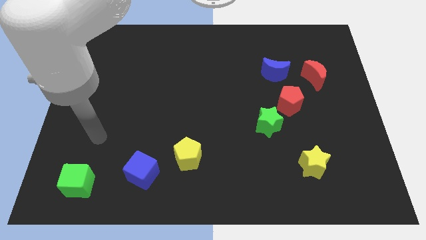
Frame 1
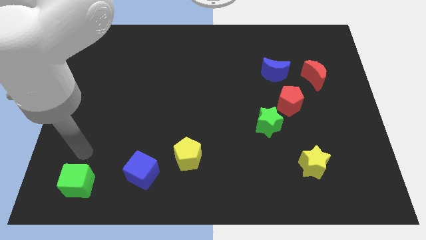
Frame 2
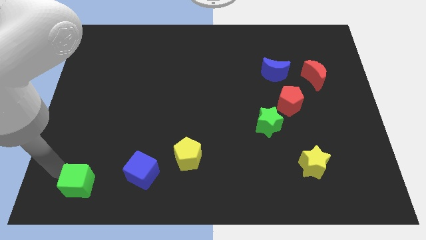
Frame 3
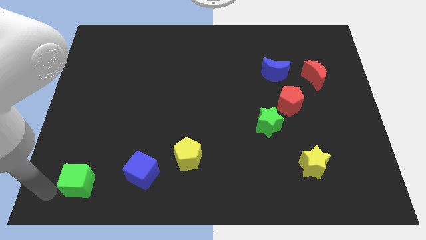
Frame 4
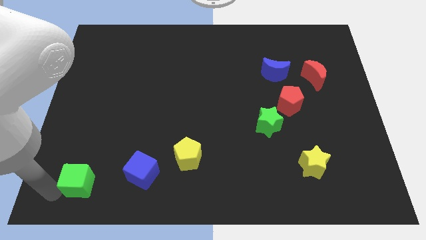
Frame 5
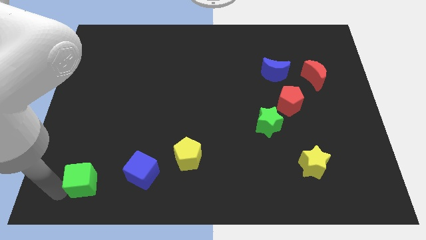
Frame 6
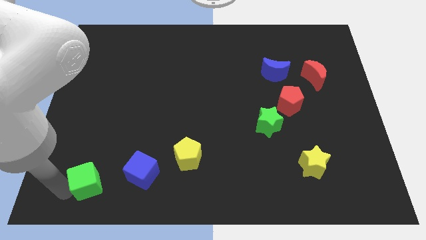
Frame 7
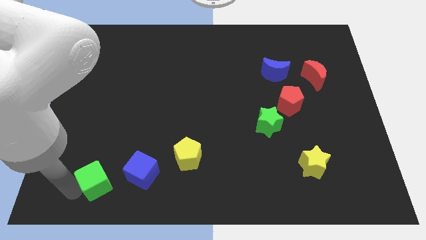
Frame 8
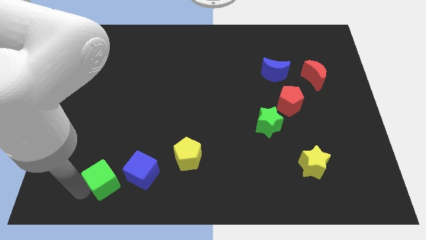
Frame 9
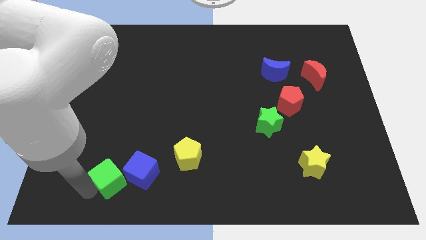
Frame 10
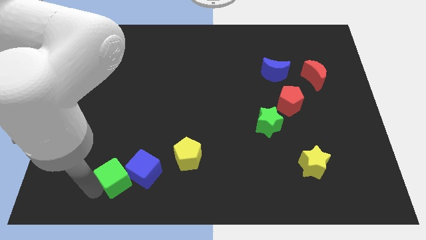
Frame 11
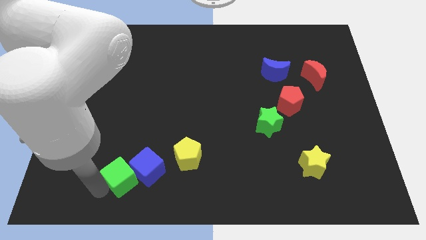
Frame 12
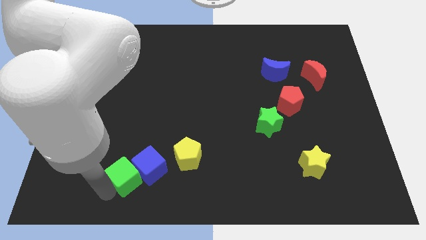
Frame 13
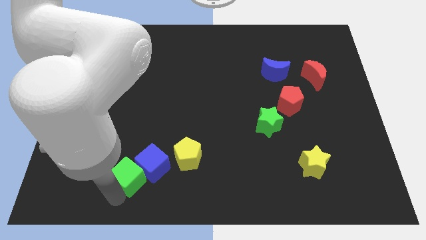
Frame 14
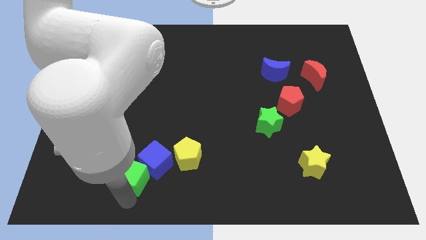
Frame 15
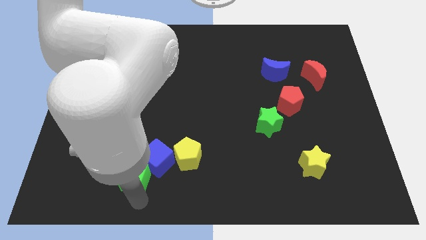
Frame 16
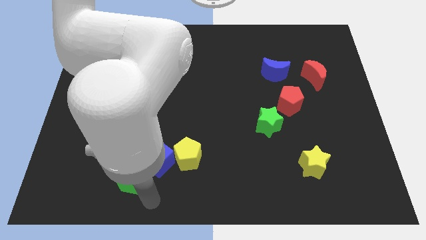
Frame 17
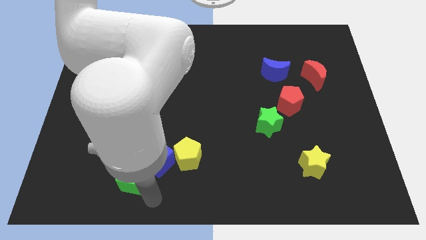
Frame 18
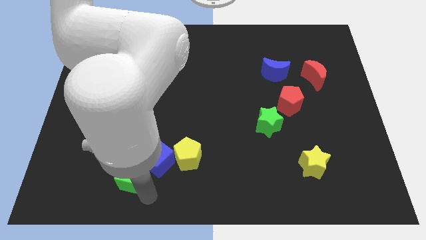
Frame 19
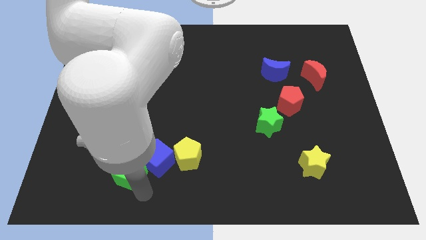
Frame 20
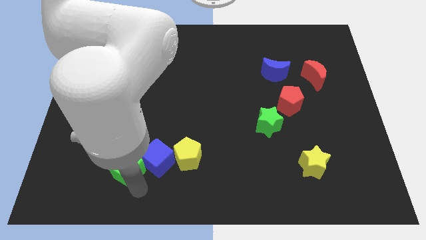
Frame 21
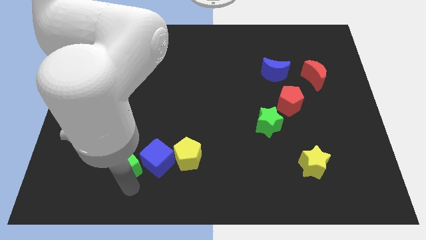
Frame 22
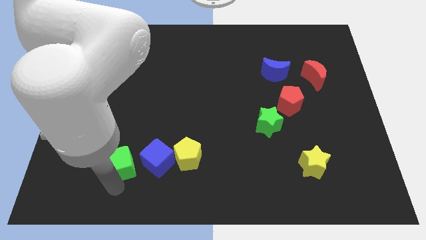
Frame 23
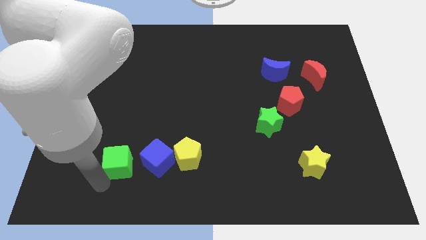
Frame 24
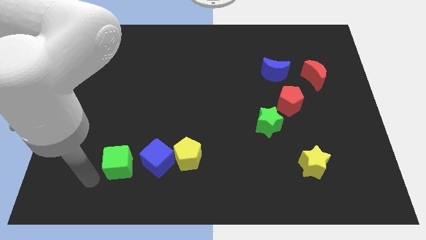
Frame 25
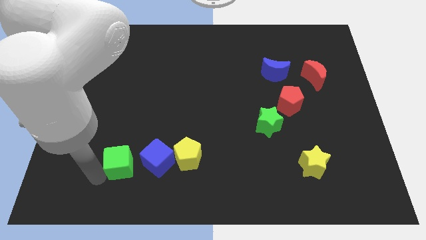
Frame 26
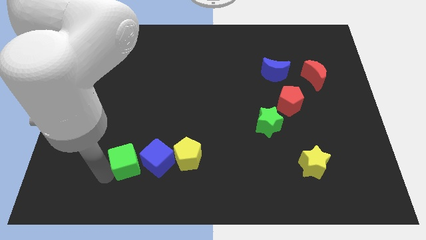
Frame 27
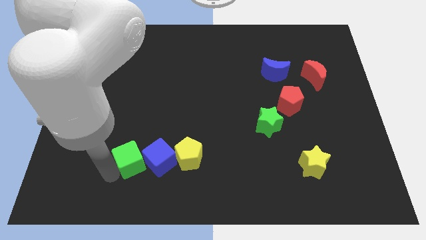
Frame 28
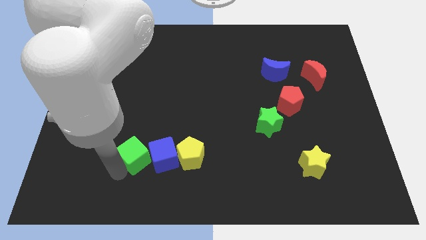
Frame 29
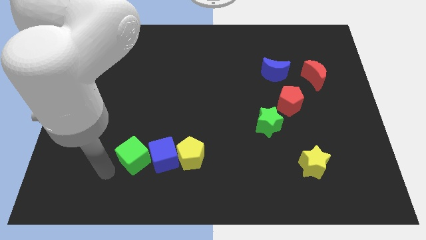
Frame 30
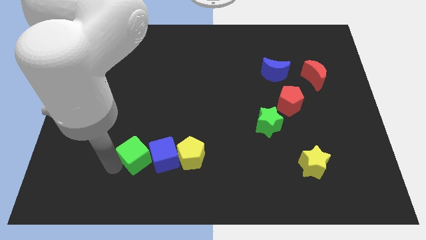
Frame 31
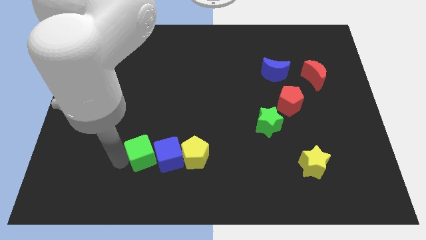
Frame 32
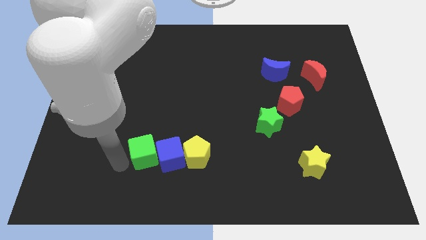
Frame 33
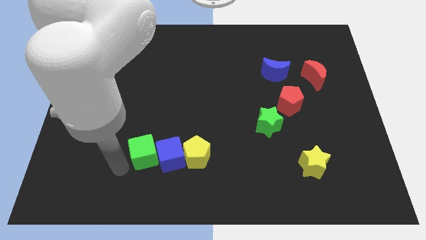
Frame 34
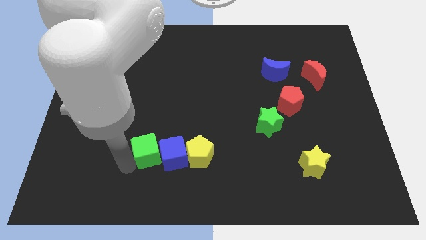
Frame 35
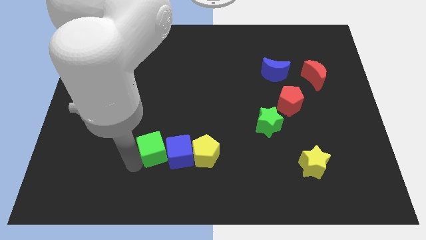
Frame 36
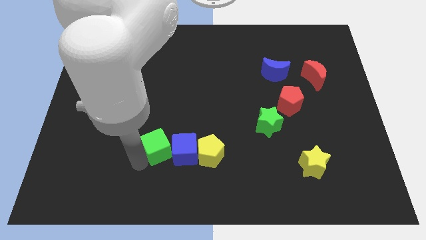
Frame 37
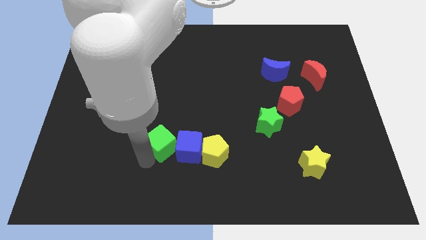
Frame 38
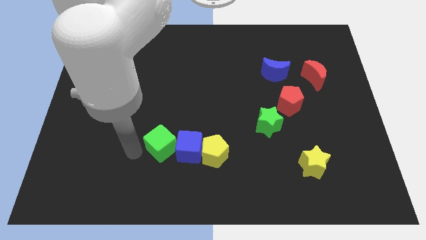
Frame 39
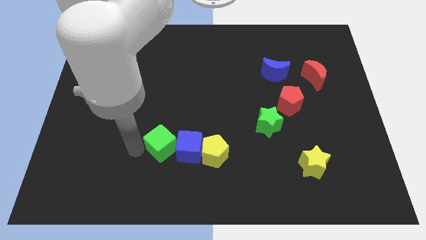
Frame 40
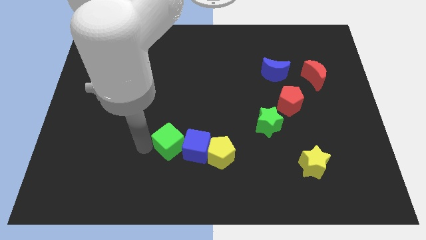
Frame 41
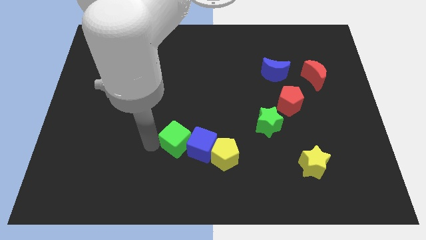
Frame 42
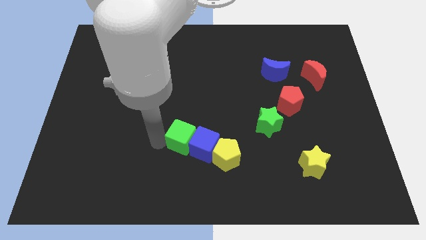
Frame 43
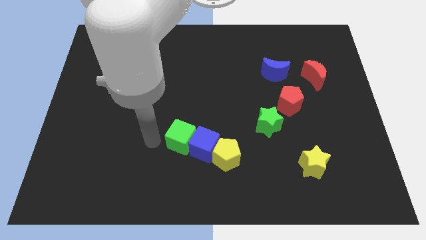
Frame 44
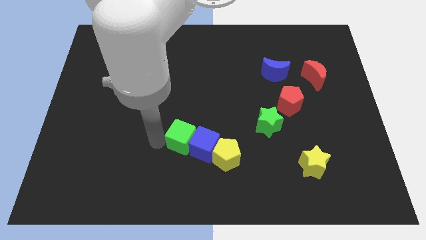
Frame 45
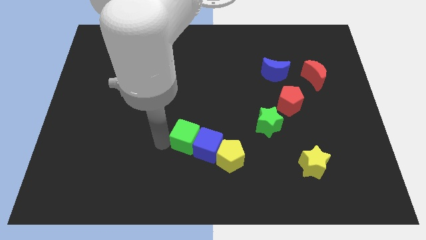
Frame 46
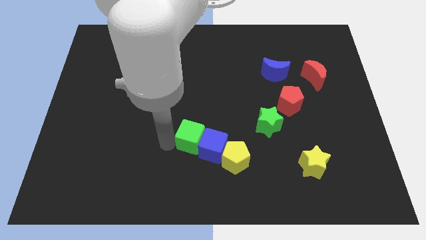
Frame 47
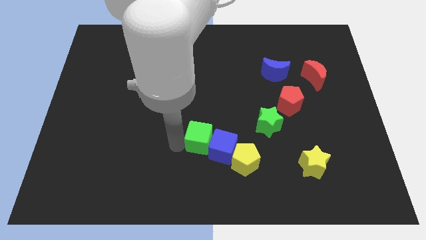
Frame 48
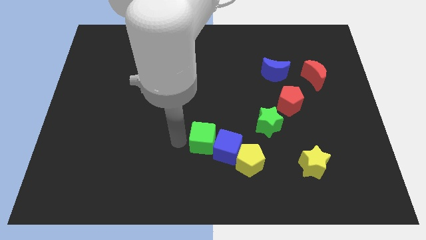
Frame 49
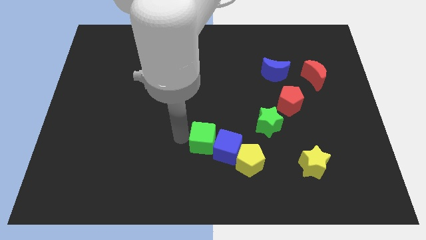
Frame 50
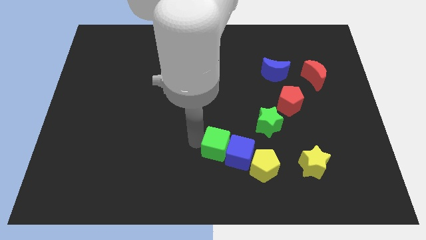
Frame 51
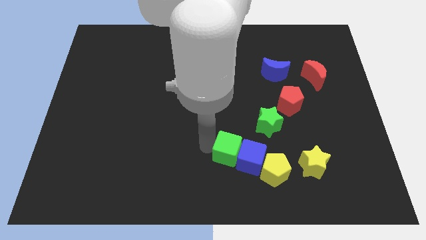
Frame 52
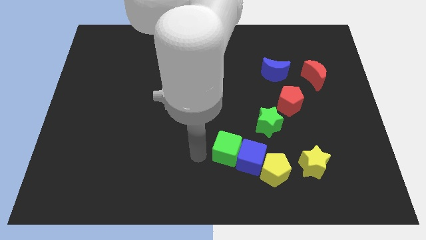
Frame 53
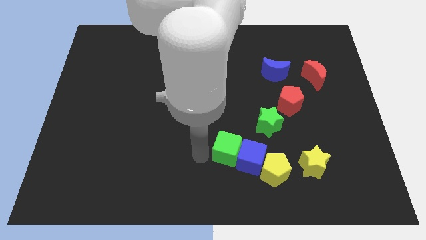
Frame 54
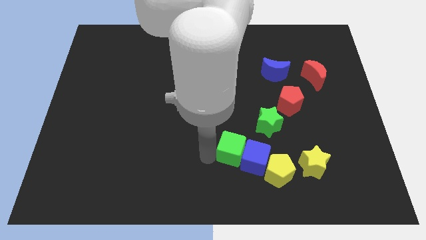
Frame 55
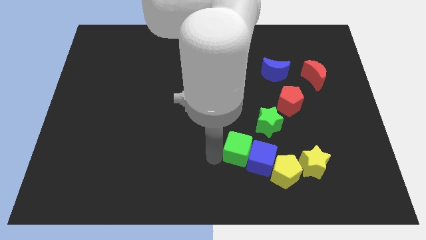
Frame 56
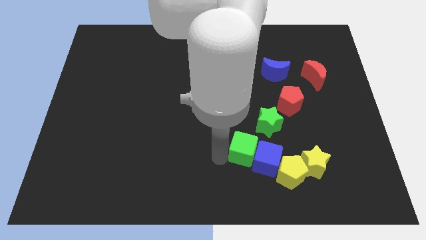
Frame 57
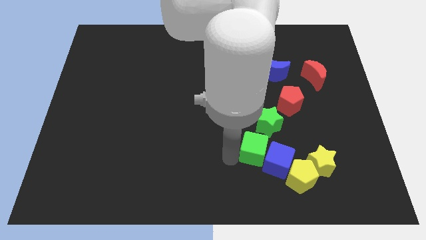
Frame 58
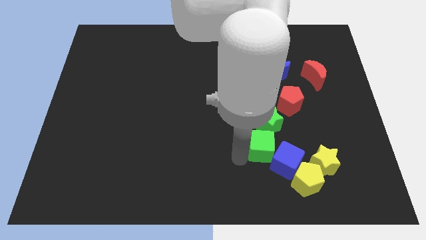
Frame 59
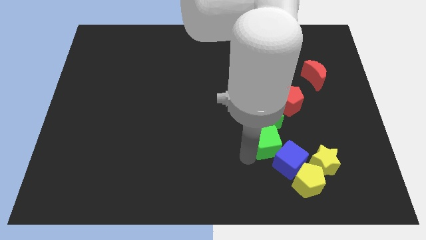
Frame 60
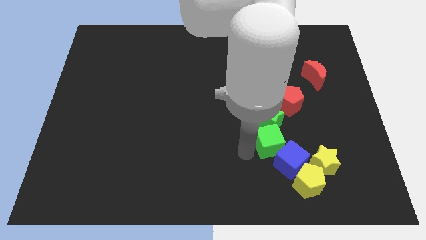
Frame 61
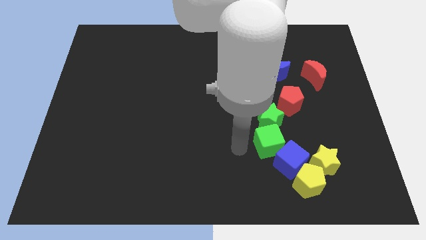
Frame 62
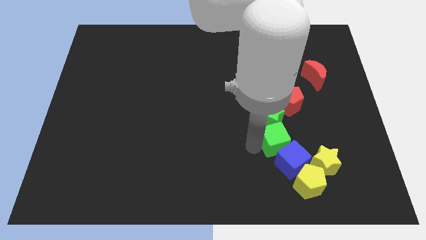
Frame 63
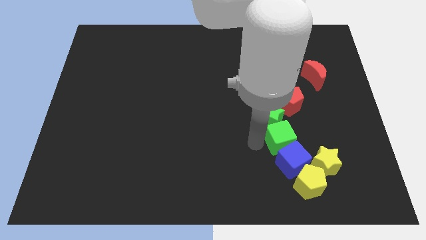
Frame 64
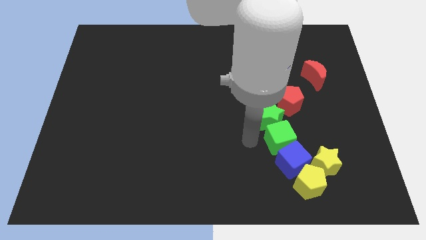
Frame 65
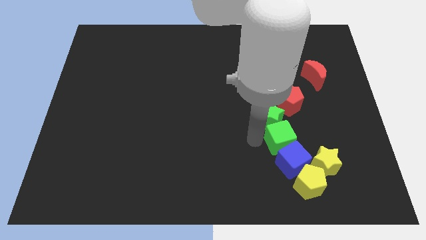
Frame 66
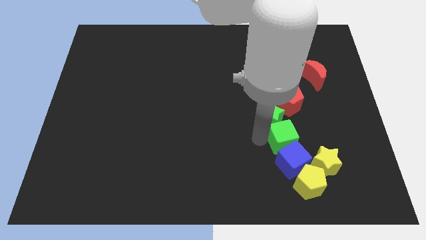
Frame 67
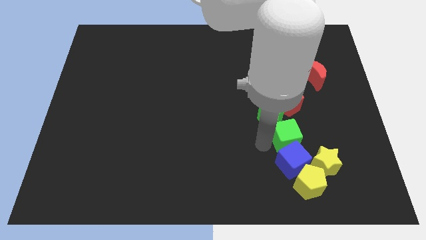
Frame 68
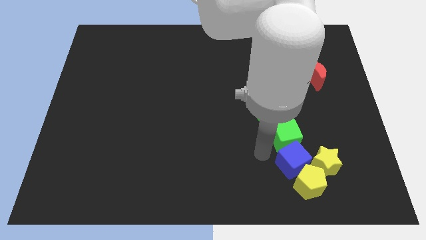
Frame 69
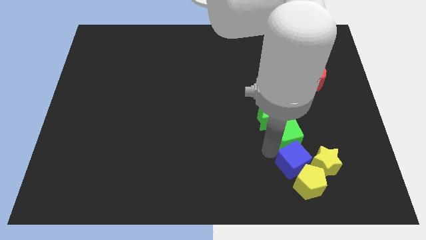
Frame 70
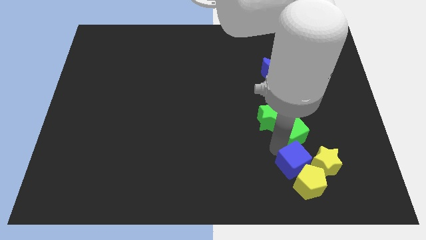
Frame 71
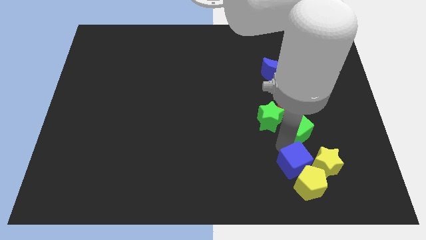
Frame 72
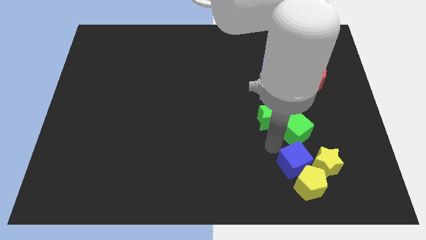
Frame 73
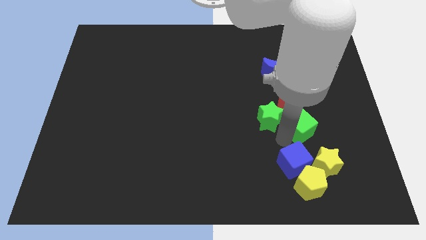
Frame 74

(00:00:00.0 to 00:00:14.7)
move the green cube to the bottom right of the red pentagon
